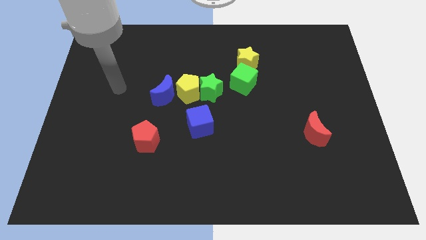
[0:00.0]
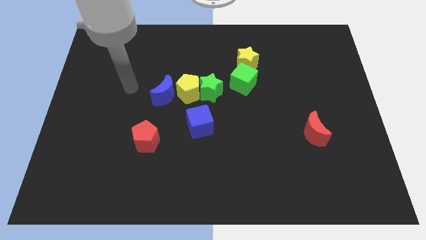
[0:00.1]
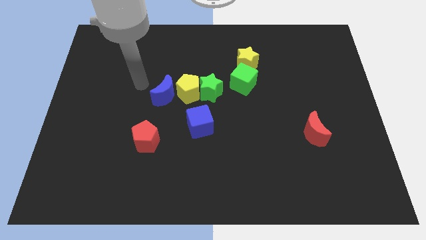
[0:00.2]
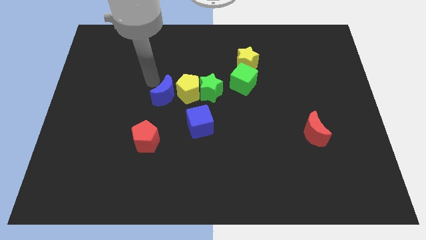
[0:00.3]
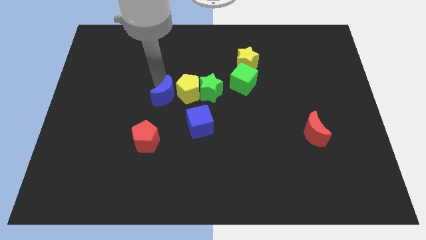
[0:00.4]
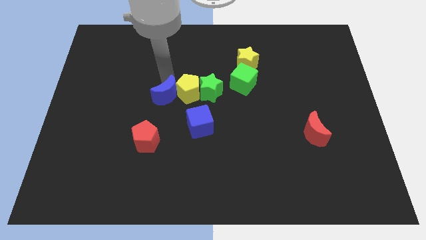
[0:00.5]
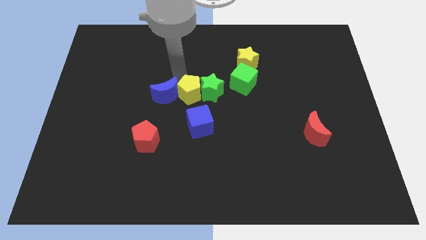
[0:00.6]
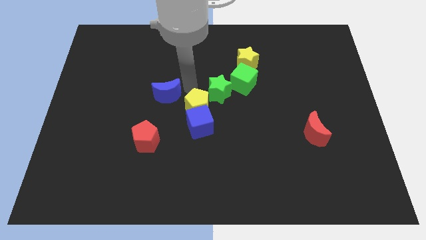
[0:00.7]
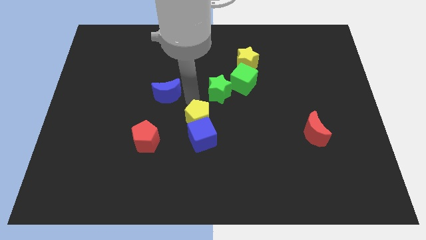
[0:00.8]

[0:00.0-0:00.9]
separate the blue moon from the yellow pentagon

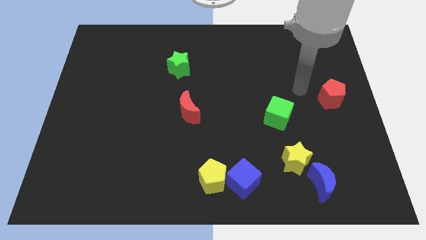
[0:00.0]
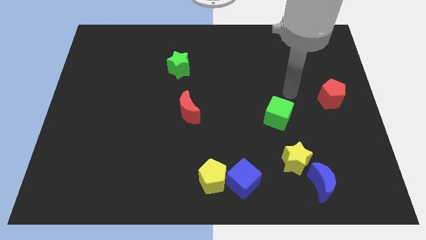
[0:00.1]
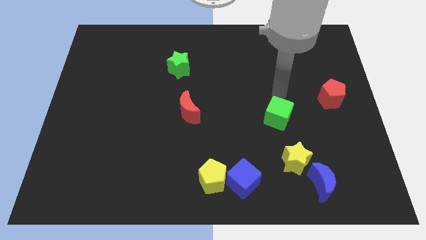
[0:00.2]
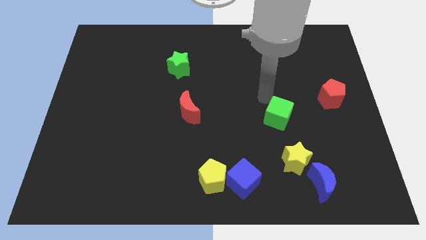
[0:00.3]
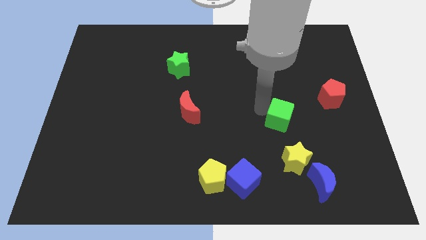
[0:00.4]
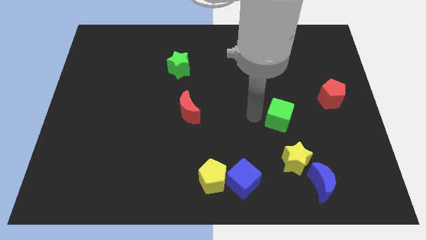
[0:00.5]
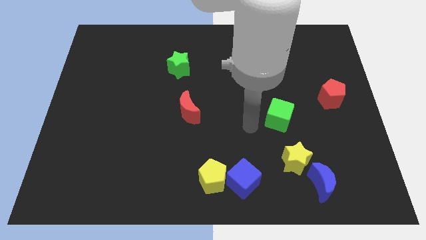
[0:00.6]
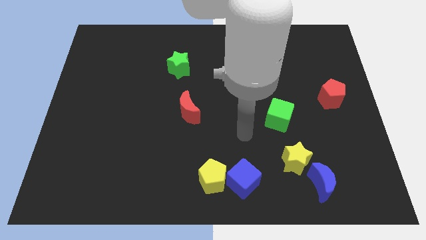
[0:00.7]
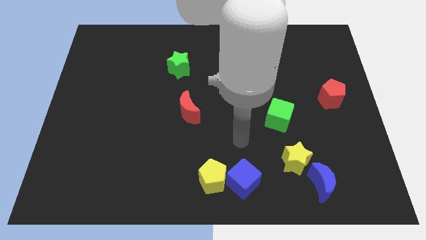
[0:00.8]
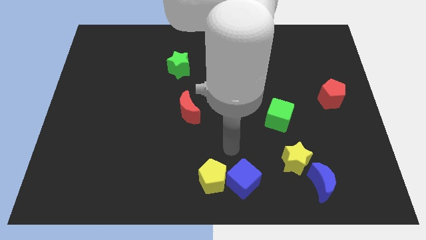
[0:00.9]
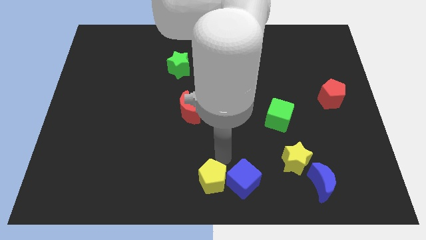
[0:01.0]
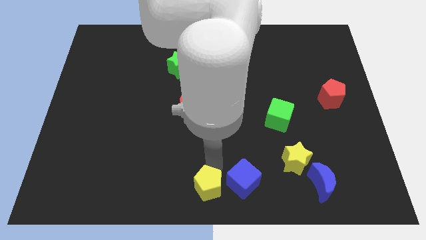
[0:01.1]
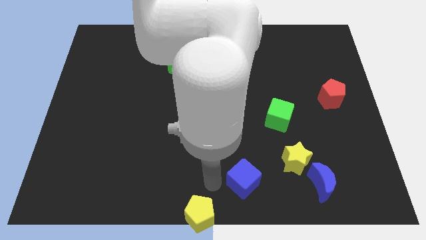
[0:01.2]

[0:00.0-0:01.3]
pull the blue cube apart from the yellow pentagon

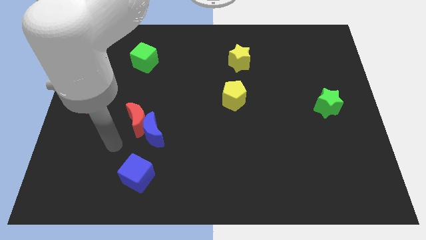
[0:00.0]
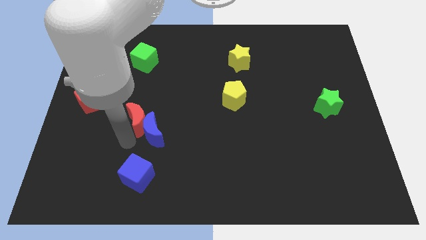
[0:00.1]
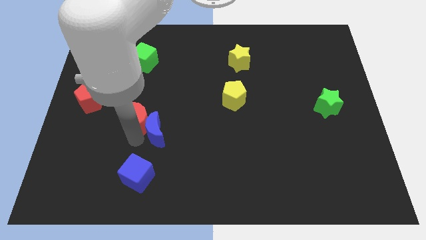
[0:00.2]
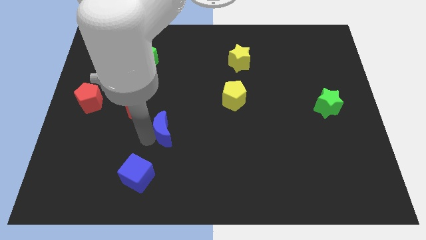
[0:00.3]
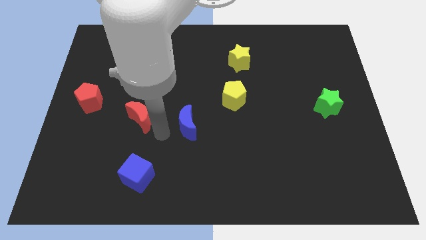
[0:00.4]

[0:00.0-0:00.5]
move the red moon away from the blue moon

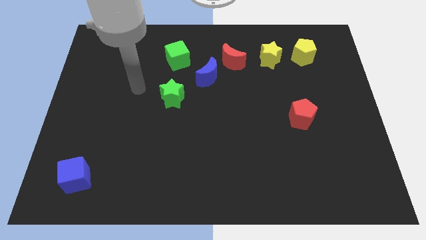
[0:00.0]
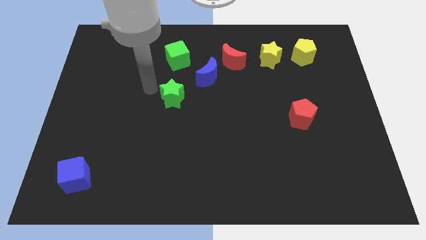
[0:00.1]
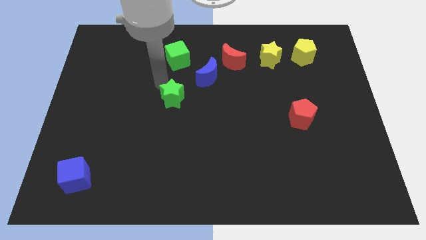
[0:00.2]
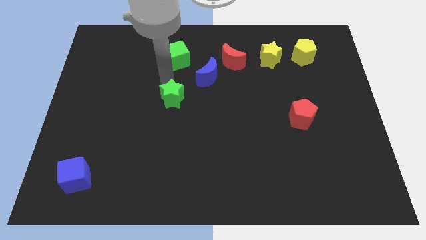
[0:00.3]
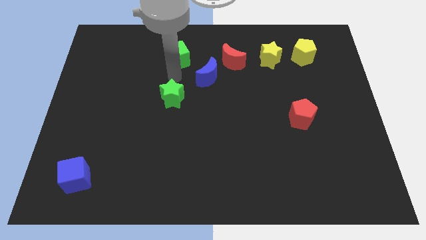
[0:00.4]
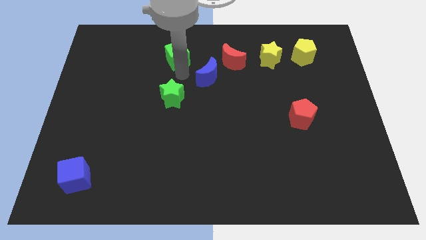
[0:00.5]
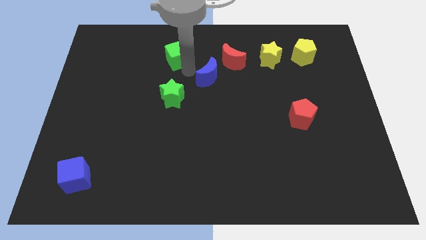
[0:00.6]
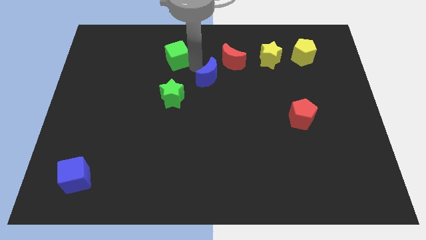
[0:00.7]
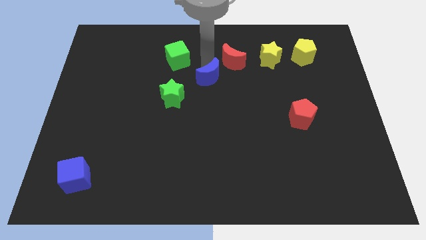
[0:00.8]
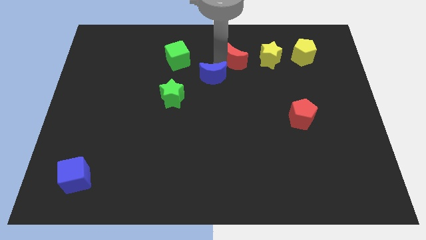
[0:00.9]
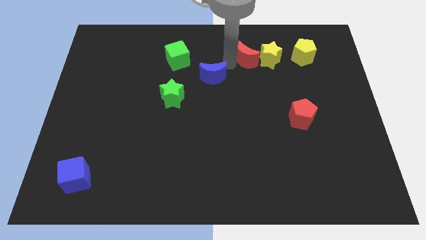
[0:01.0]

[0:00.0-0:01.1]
move the blue moon away from the red moon

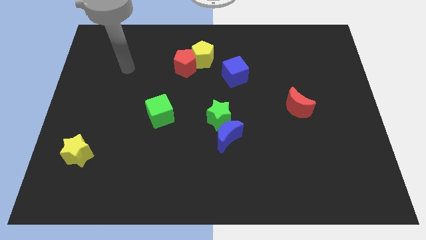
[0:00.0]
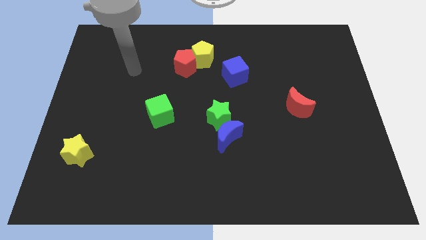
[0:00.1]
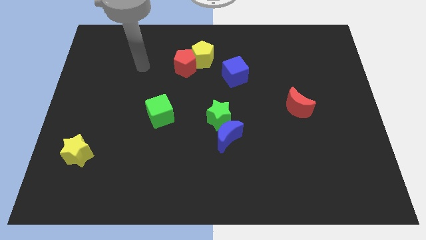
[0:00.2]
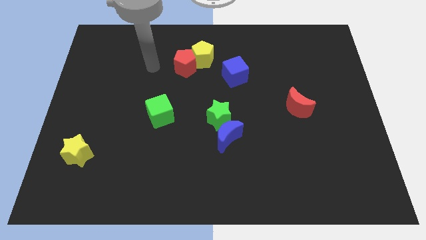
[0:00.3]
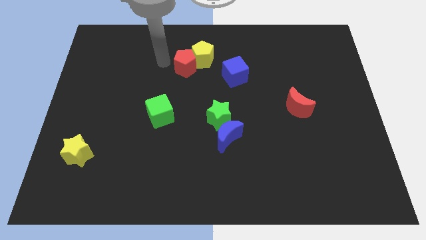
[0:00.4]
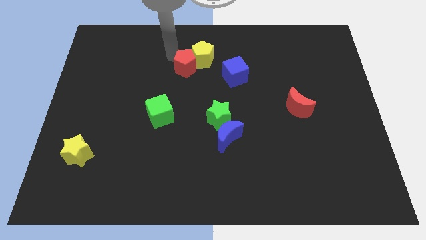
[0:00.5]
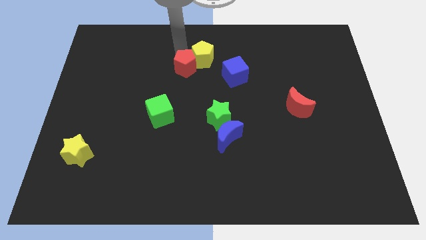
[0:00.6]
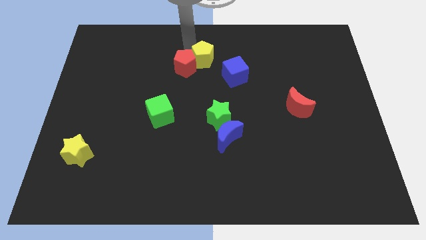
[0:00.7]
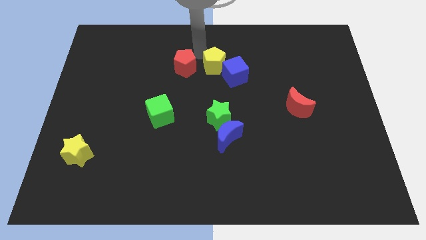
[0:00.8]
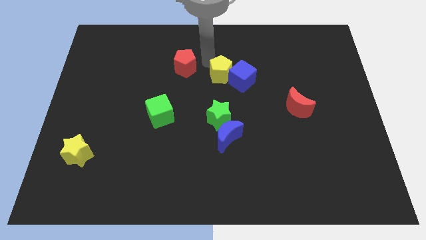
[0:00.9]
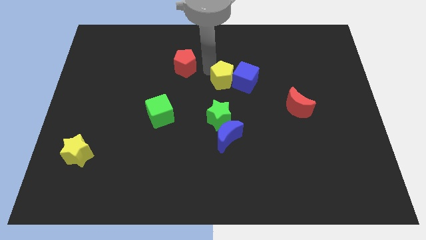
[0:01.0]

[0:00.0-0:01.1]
pull the red pentagon apart from the yellow pentagon

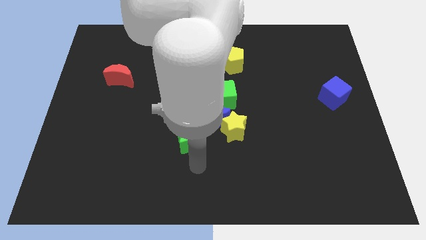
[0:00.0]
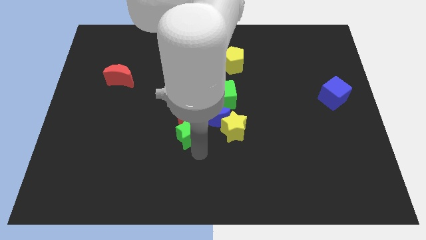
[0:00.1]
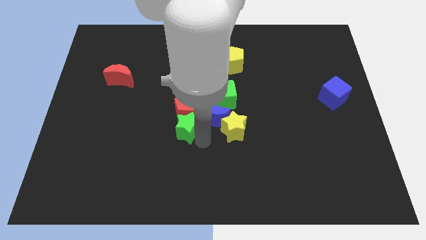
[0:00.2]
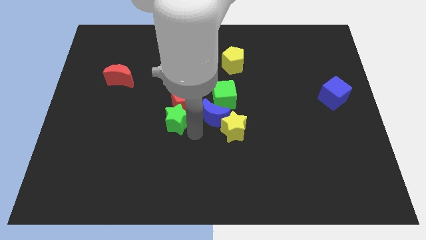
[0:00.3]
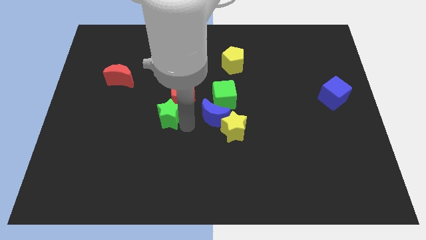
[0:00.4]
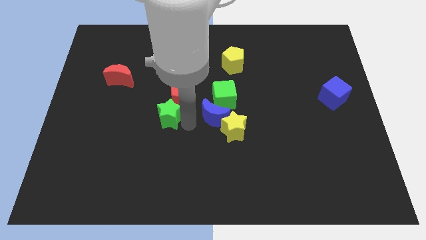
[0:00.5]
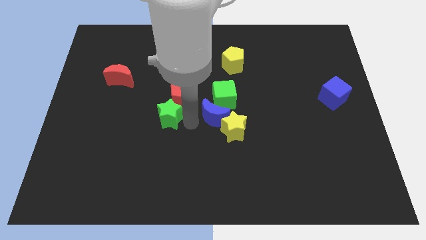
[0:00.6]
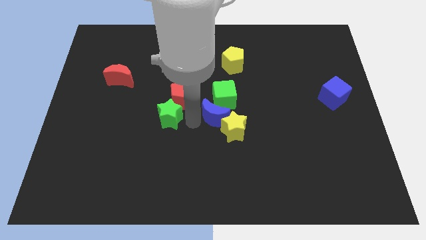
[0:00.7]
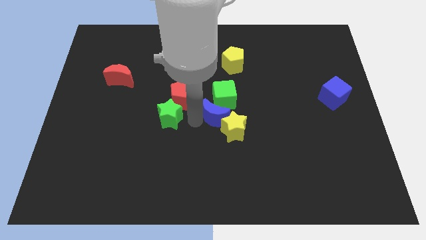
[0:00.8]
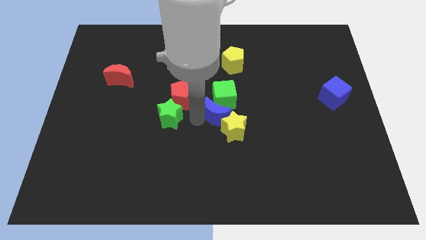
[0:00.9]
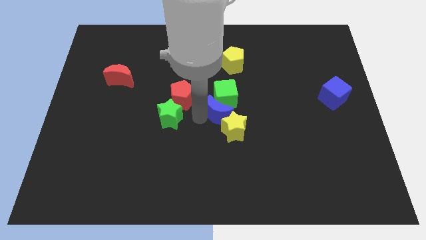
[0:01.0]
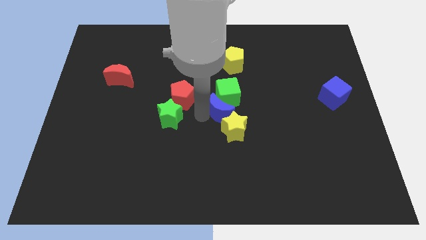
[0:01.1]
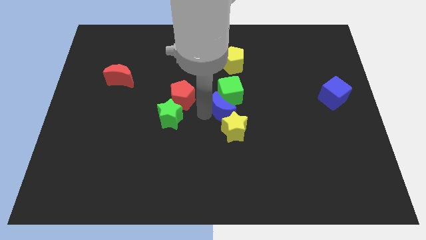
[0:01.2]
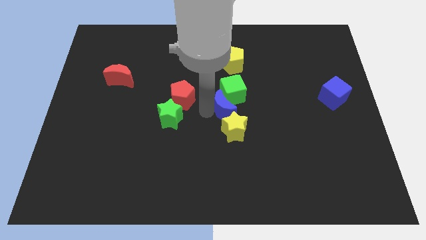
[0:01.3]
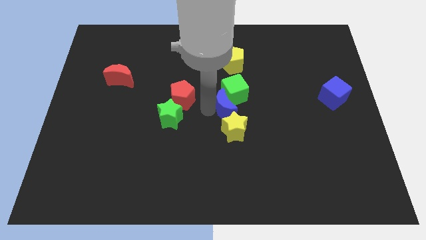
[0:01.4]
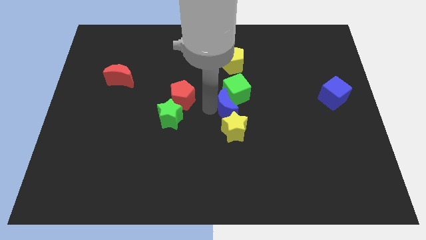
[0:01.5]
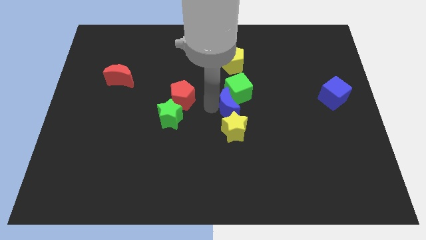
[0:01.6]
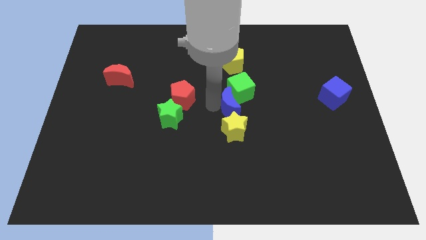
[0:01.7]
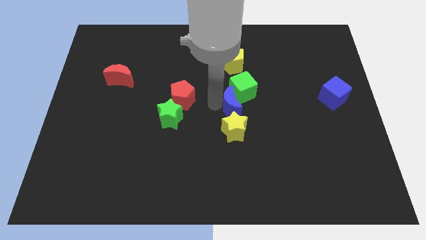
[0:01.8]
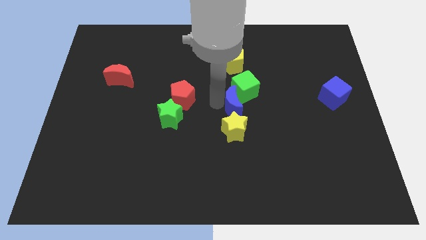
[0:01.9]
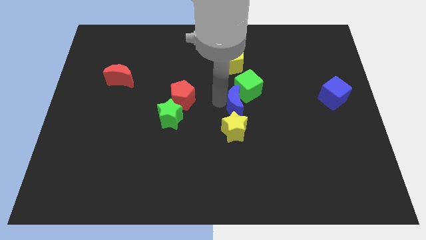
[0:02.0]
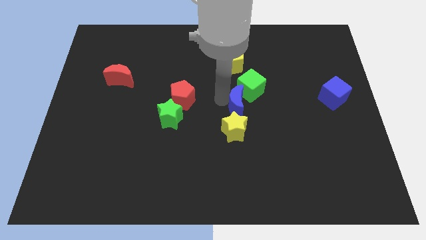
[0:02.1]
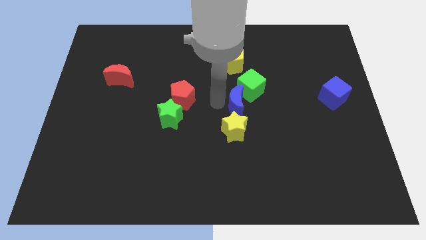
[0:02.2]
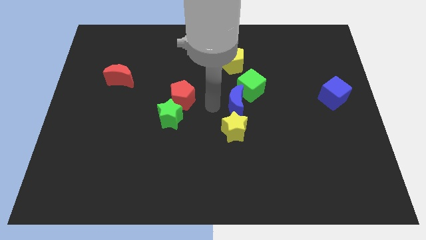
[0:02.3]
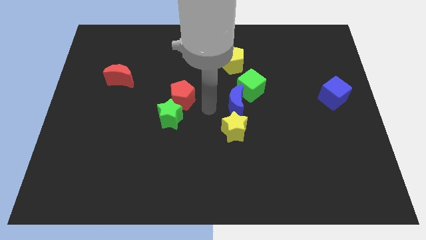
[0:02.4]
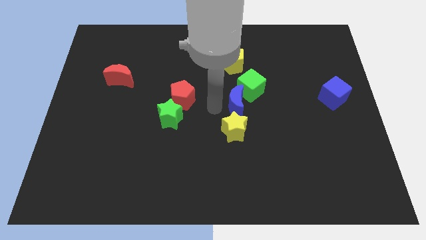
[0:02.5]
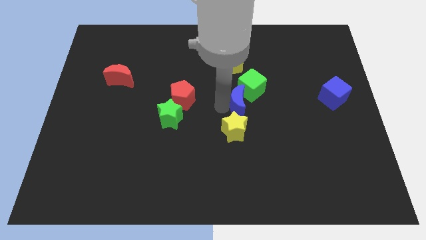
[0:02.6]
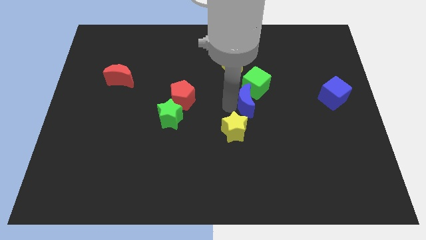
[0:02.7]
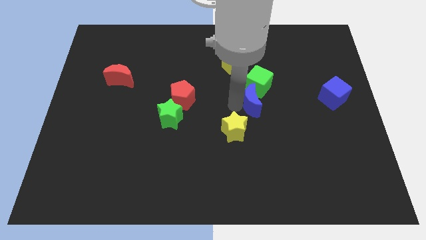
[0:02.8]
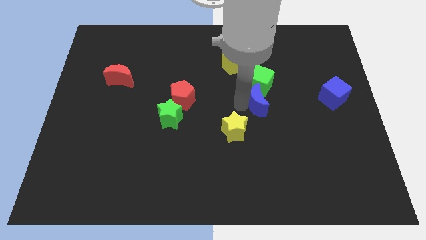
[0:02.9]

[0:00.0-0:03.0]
separate the blue moon from the group

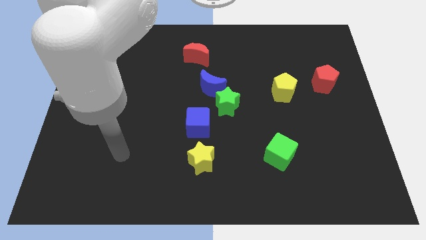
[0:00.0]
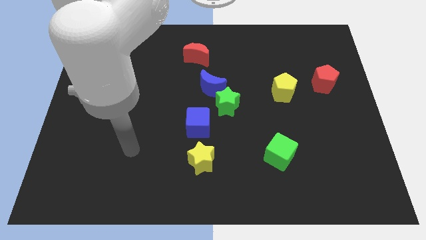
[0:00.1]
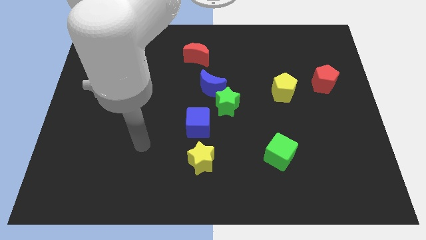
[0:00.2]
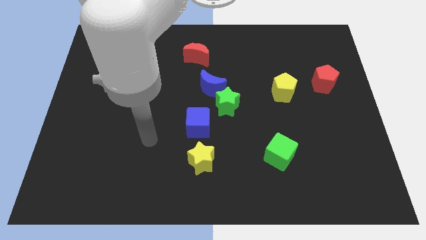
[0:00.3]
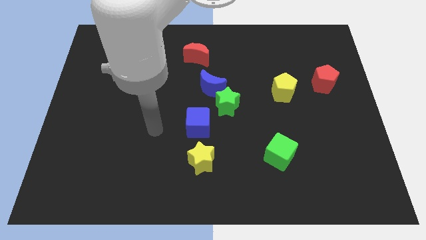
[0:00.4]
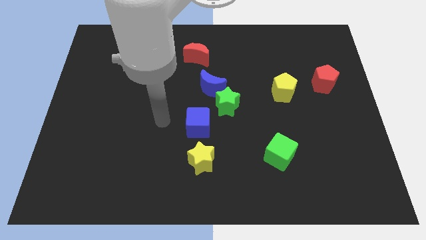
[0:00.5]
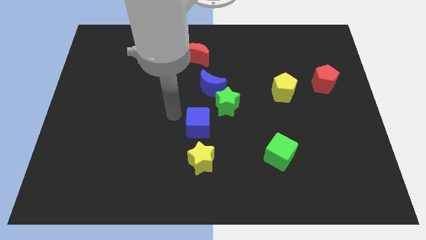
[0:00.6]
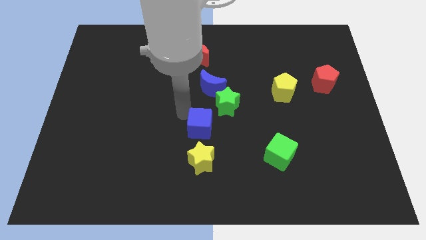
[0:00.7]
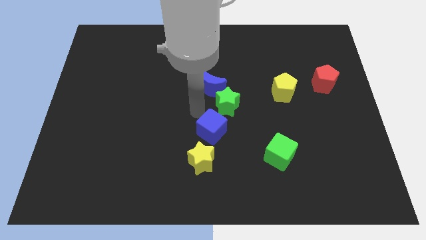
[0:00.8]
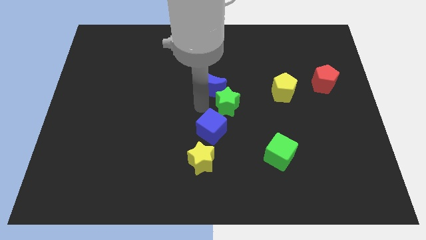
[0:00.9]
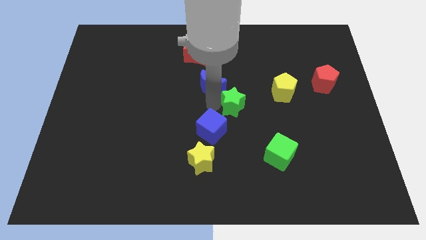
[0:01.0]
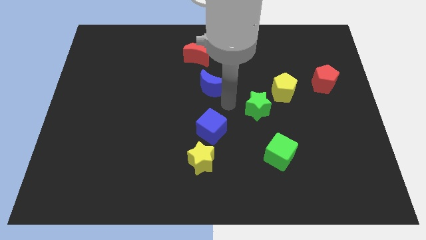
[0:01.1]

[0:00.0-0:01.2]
pull the blue moon apart from the green star

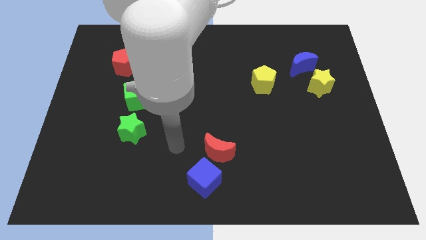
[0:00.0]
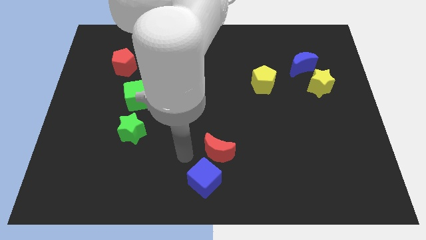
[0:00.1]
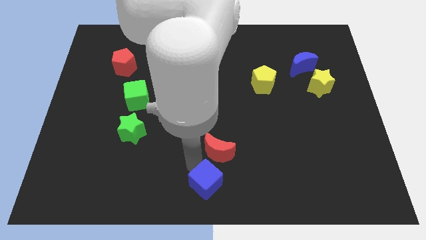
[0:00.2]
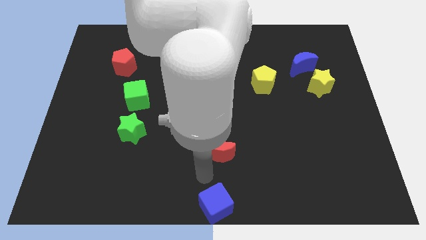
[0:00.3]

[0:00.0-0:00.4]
pull the red moon apart from the blue cube
